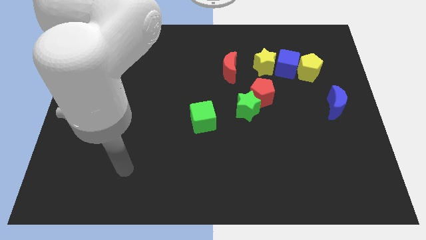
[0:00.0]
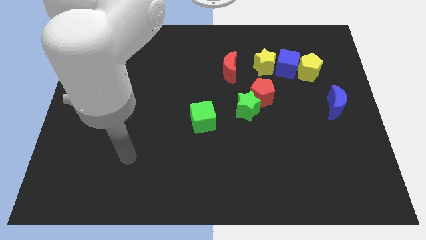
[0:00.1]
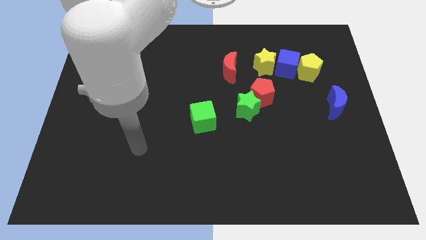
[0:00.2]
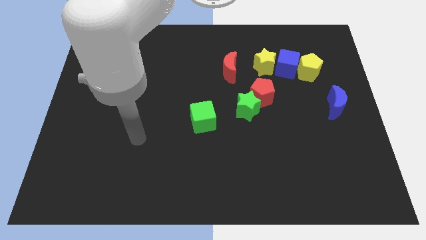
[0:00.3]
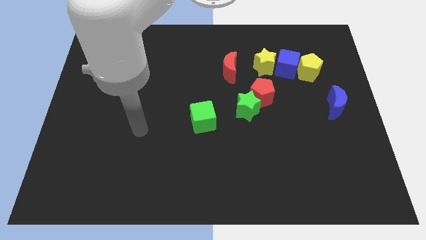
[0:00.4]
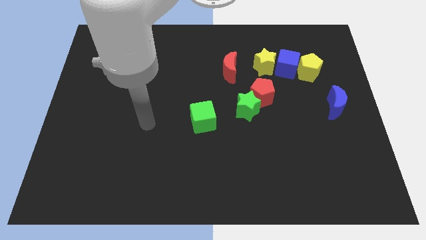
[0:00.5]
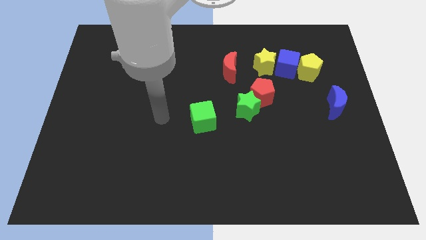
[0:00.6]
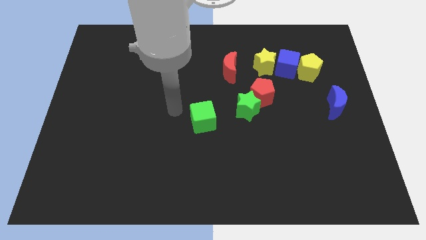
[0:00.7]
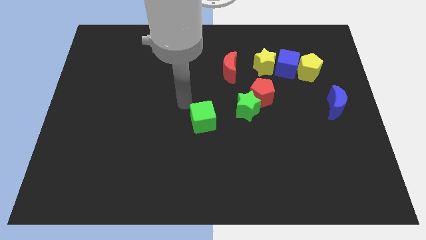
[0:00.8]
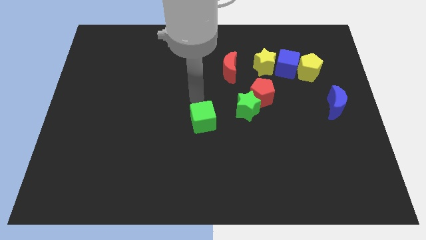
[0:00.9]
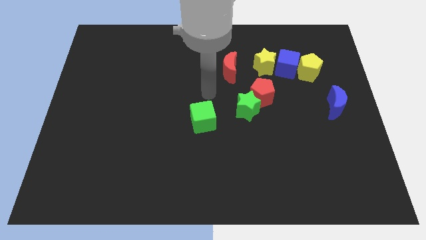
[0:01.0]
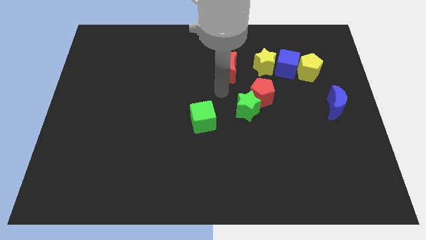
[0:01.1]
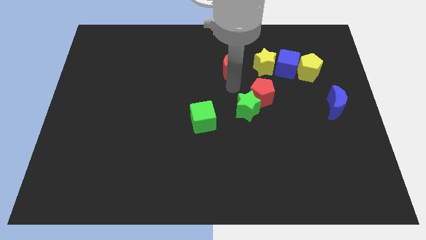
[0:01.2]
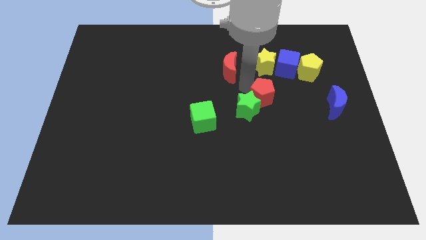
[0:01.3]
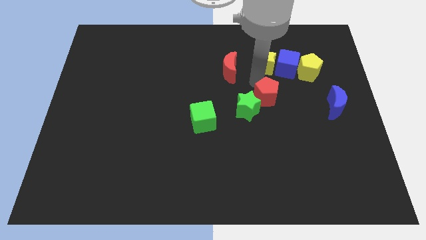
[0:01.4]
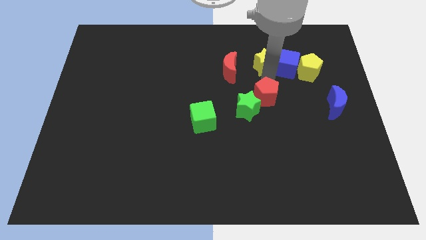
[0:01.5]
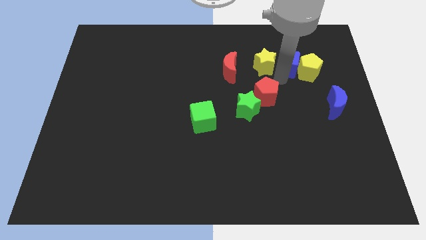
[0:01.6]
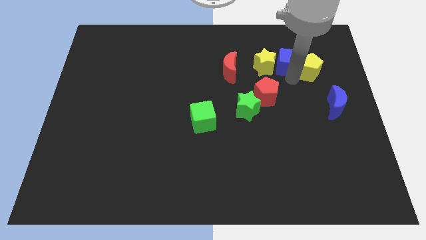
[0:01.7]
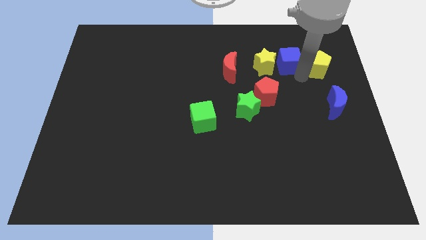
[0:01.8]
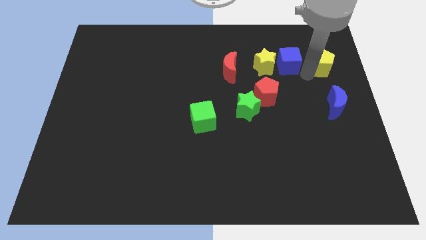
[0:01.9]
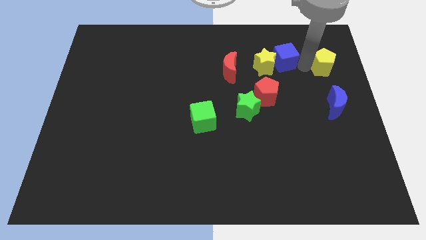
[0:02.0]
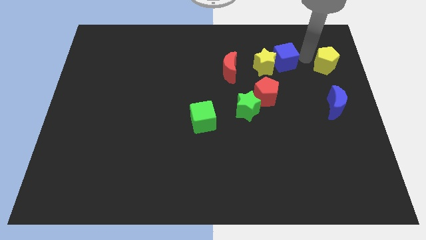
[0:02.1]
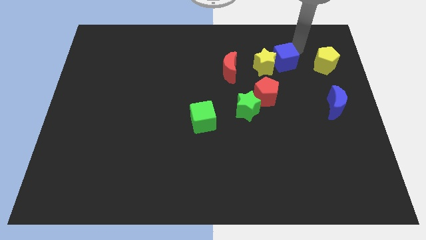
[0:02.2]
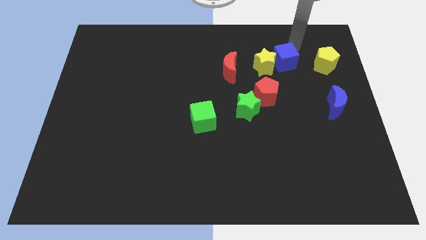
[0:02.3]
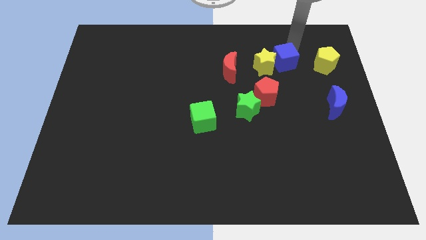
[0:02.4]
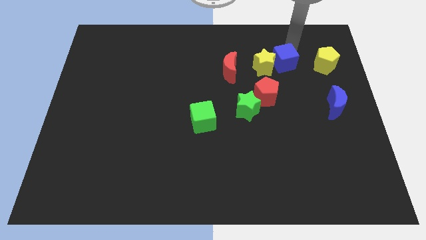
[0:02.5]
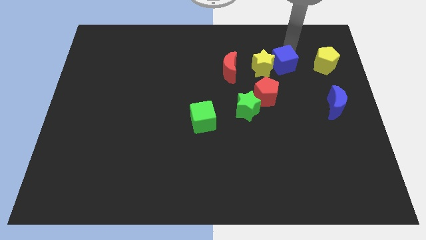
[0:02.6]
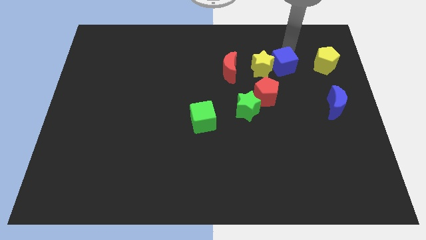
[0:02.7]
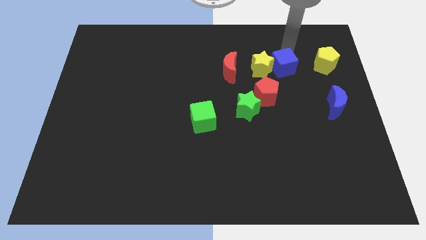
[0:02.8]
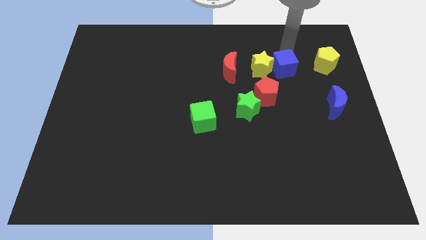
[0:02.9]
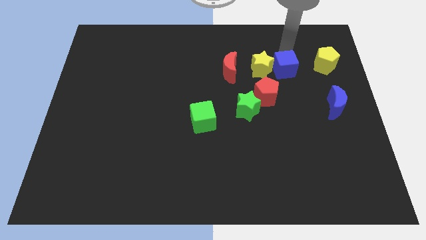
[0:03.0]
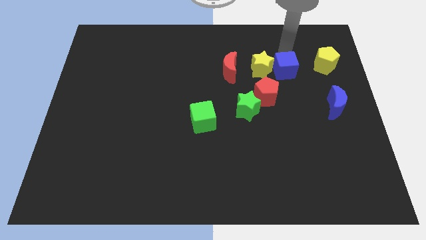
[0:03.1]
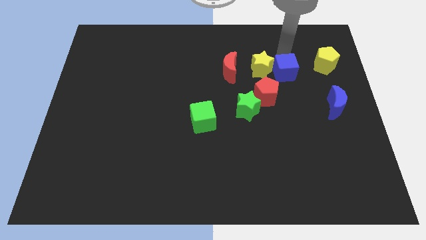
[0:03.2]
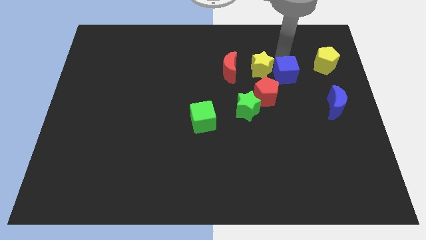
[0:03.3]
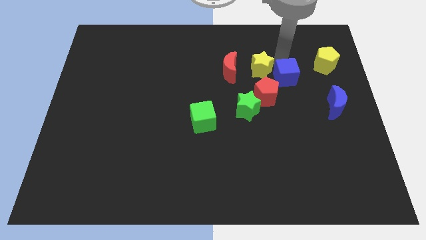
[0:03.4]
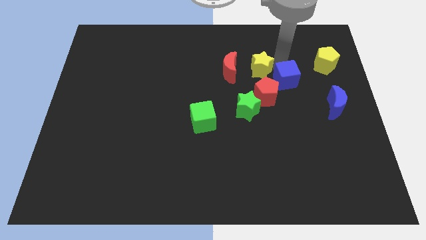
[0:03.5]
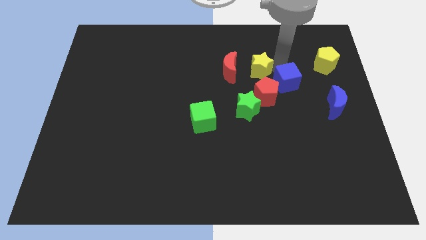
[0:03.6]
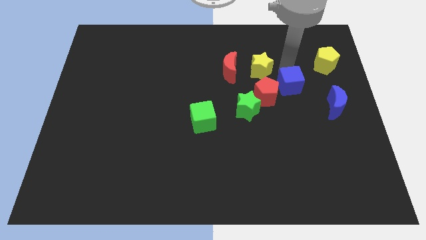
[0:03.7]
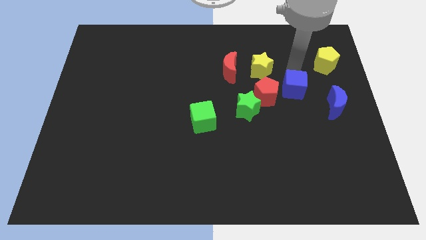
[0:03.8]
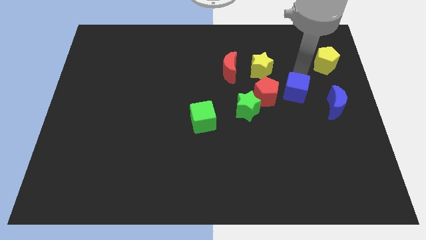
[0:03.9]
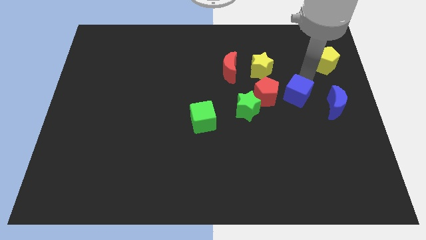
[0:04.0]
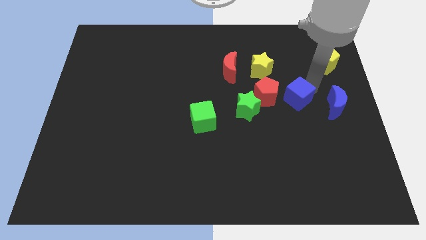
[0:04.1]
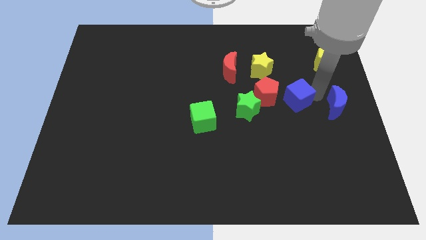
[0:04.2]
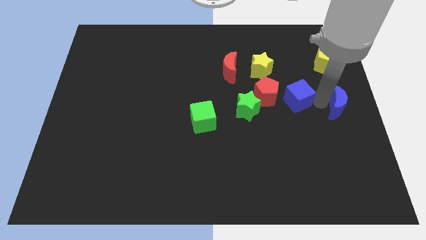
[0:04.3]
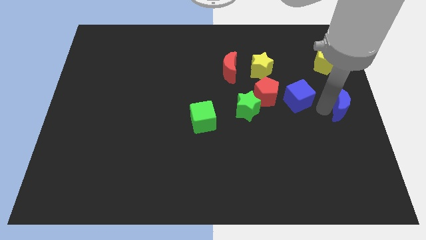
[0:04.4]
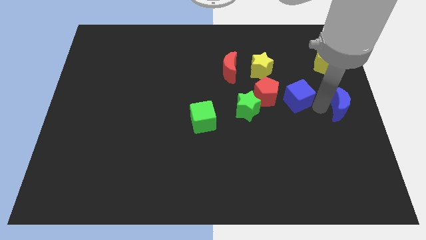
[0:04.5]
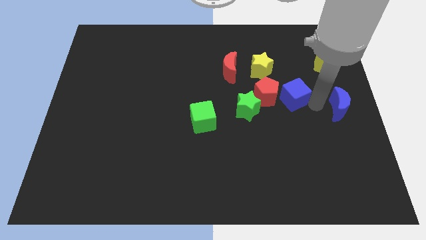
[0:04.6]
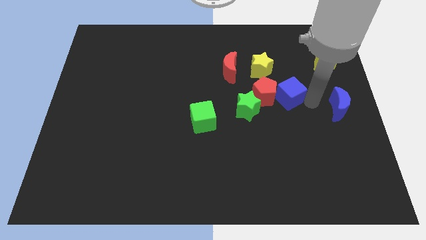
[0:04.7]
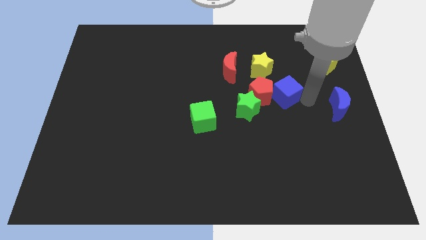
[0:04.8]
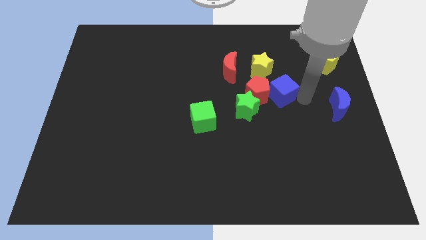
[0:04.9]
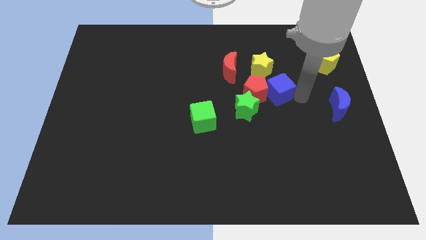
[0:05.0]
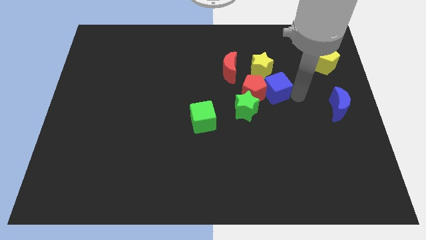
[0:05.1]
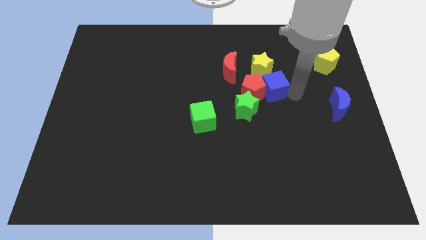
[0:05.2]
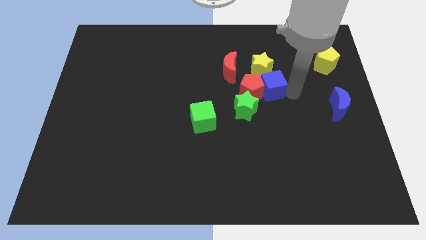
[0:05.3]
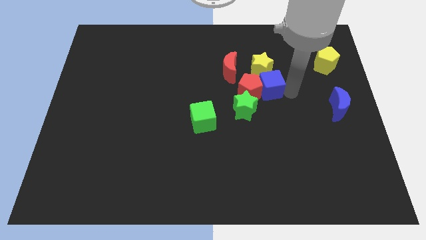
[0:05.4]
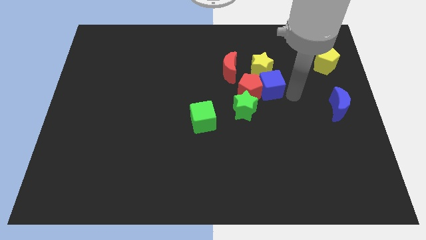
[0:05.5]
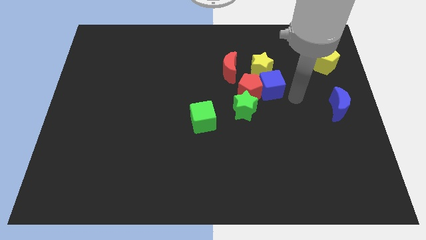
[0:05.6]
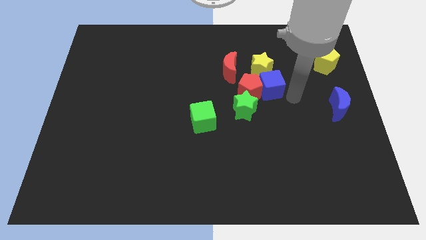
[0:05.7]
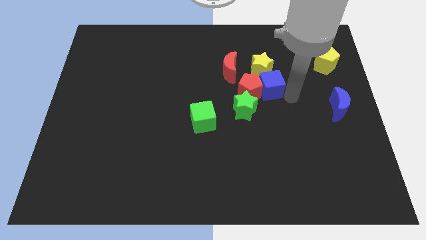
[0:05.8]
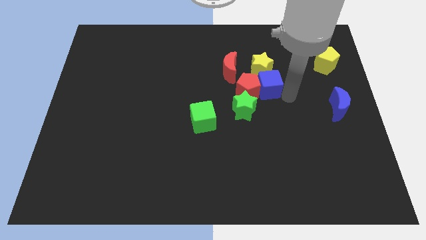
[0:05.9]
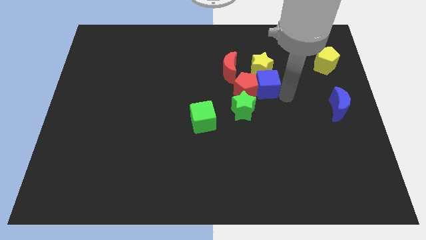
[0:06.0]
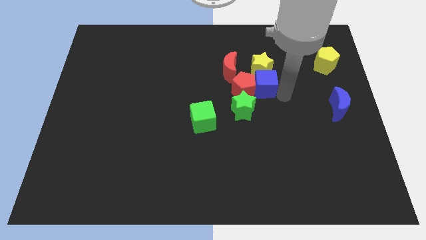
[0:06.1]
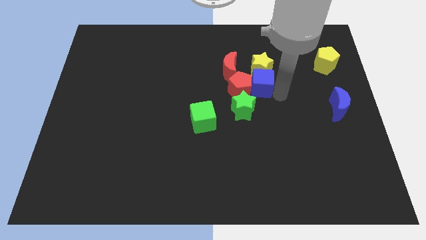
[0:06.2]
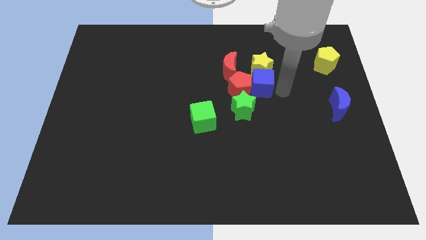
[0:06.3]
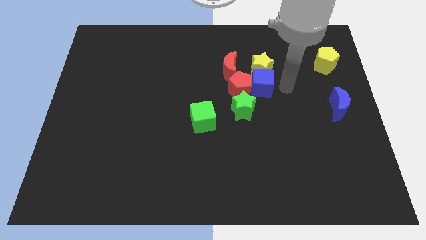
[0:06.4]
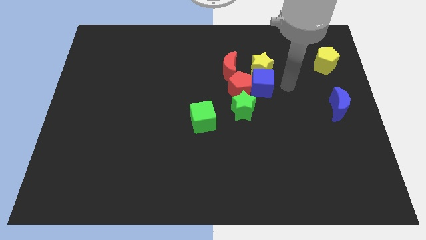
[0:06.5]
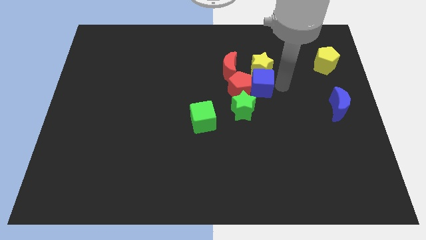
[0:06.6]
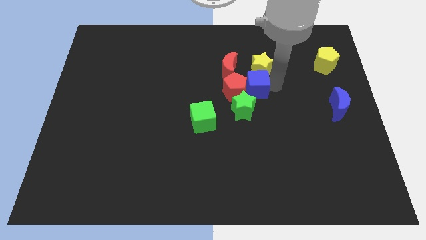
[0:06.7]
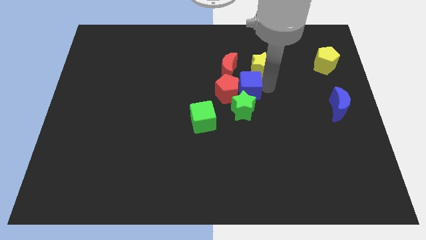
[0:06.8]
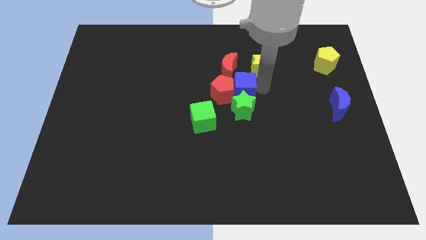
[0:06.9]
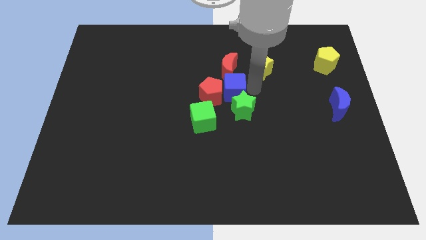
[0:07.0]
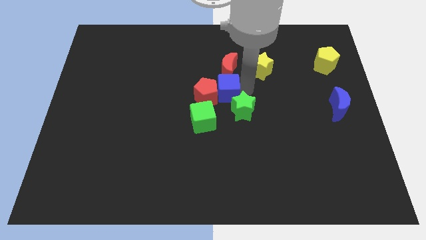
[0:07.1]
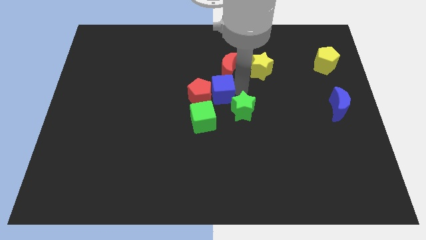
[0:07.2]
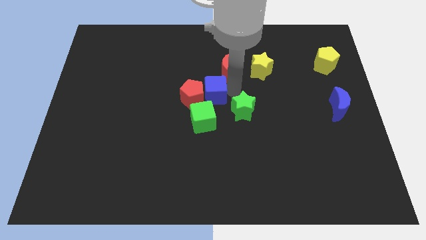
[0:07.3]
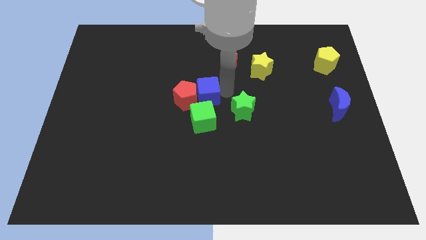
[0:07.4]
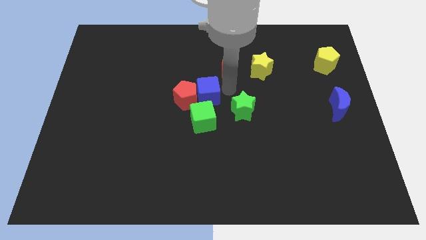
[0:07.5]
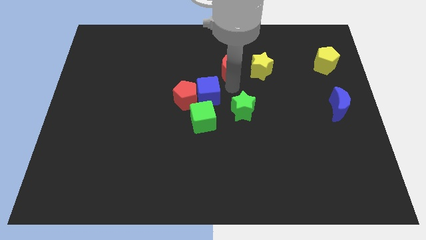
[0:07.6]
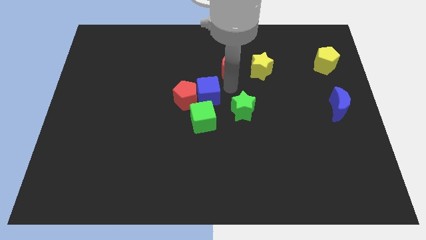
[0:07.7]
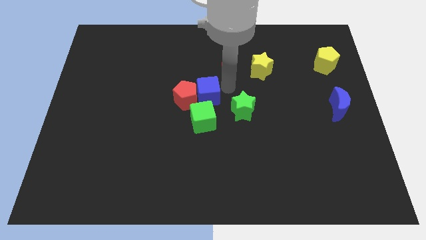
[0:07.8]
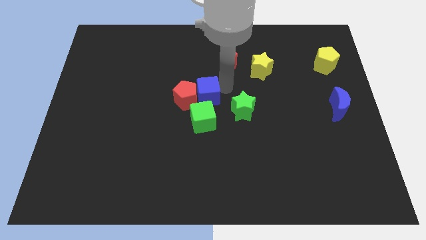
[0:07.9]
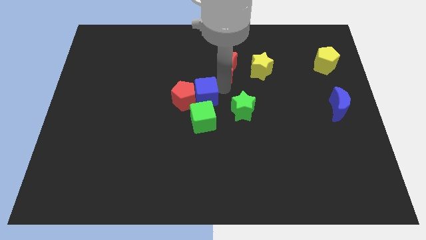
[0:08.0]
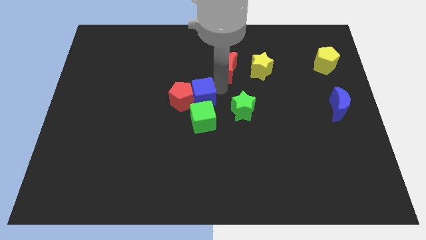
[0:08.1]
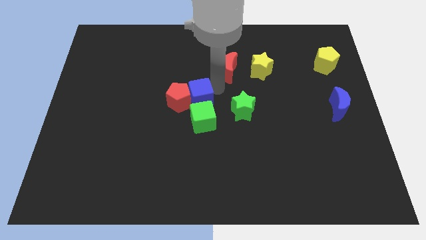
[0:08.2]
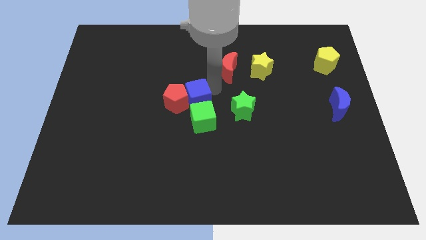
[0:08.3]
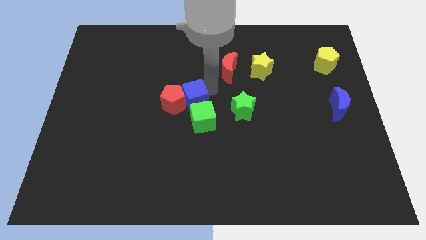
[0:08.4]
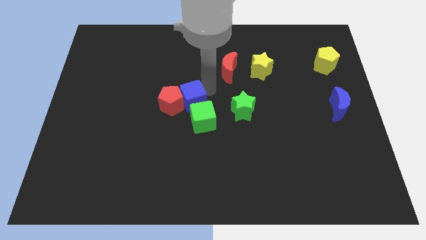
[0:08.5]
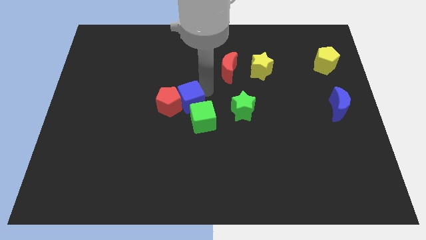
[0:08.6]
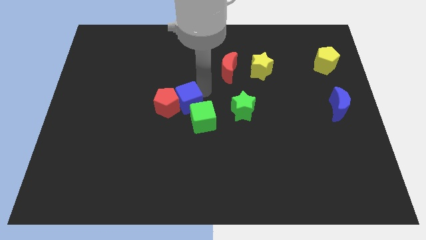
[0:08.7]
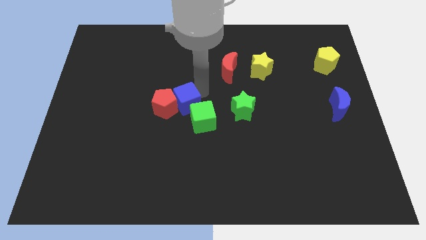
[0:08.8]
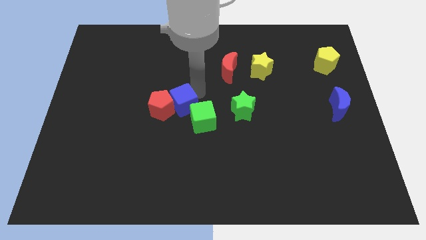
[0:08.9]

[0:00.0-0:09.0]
put the blue cube to the left of the green cube
